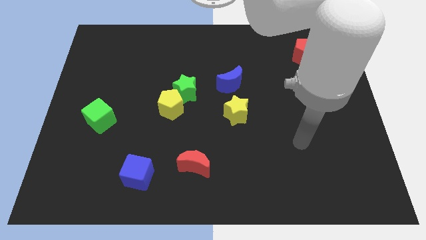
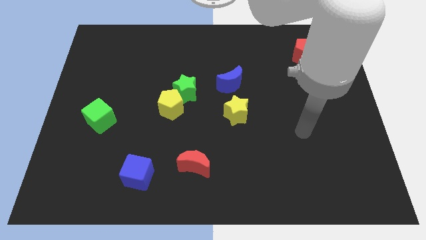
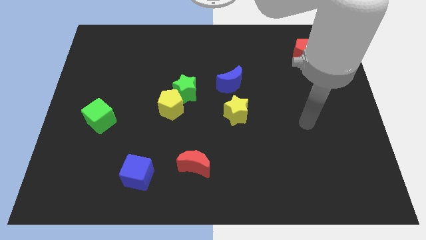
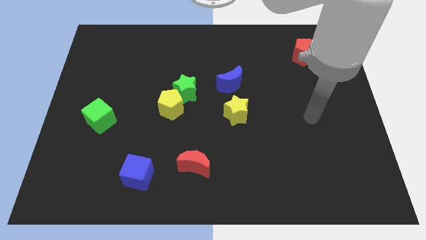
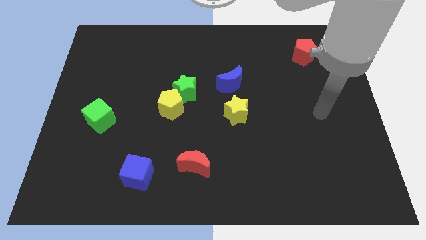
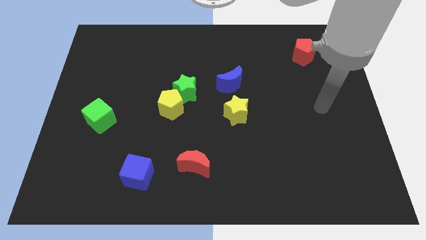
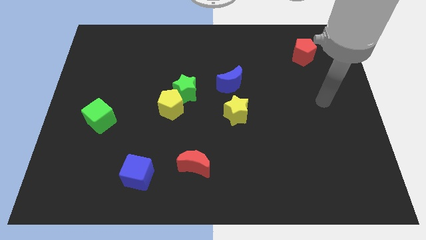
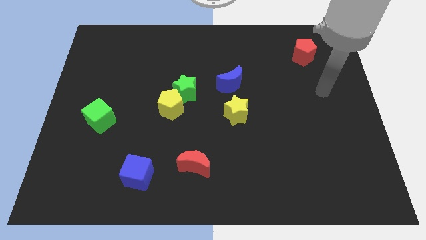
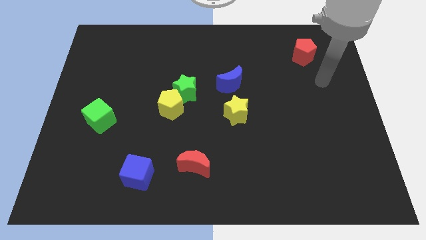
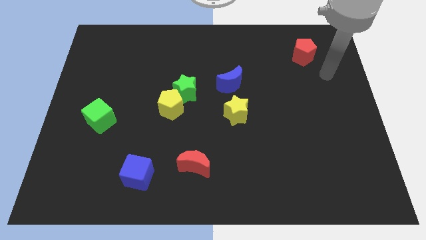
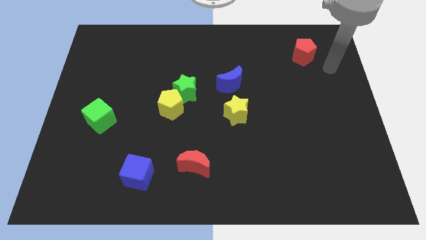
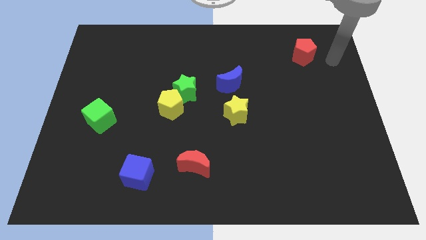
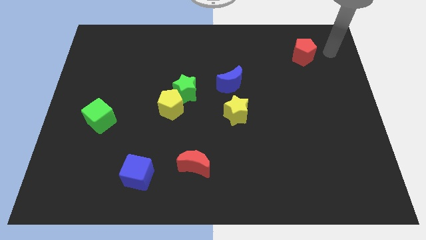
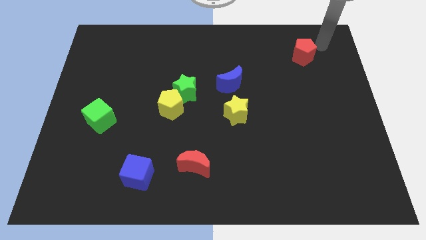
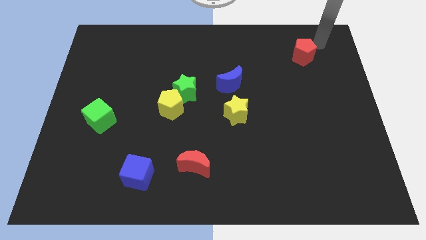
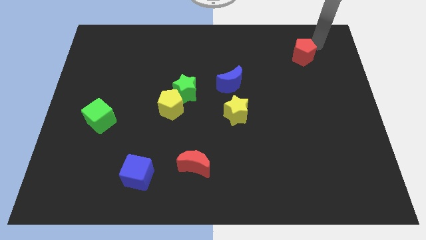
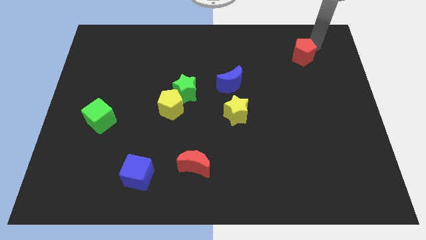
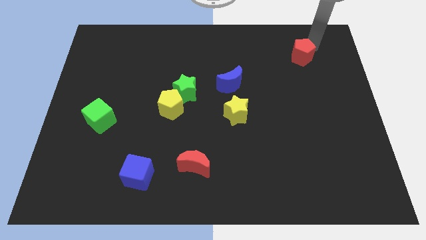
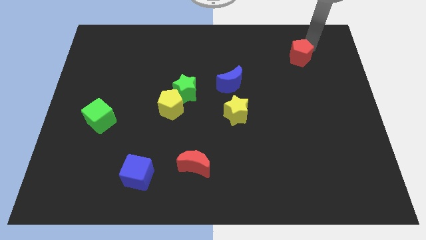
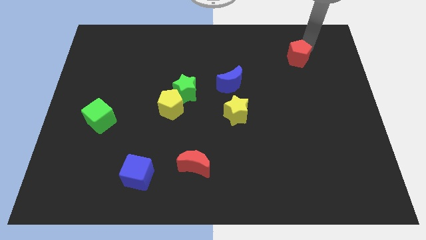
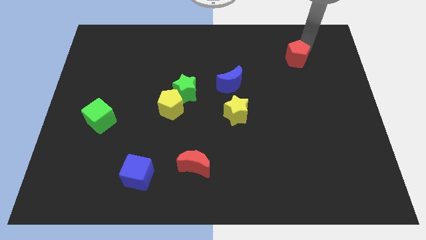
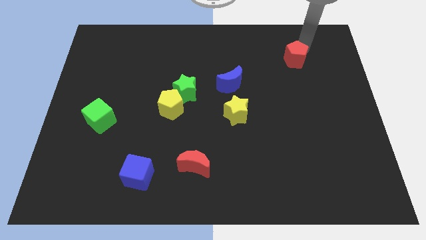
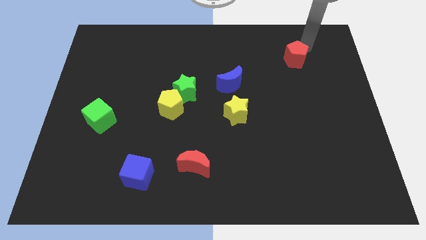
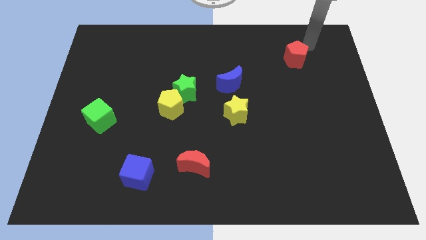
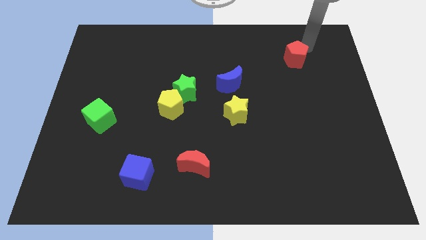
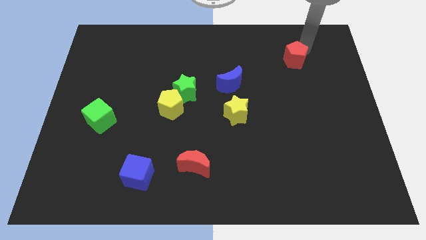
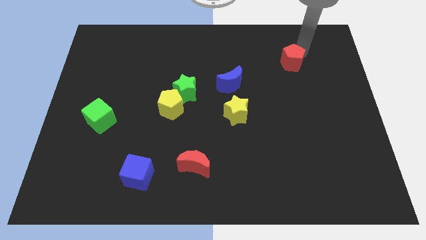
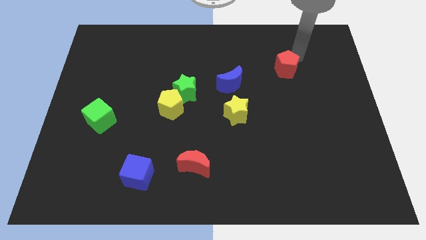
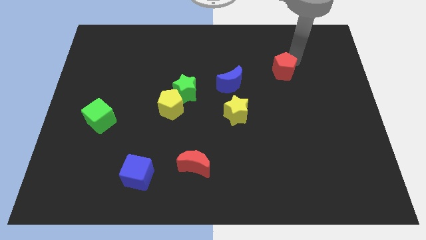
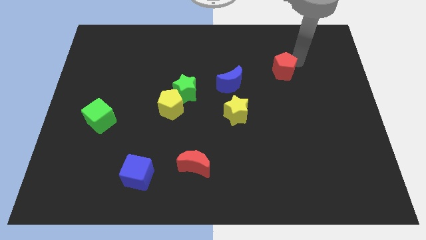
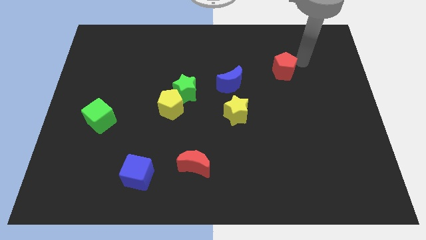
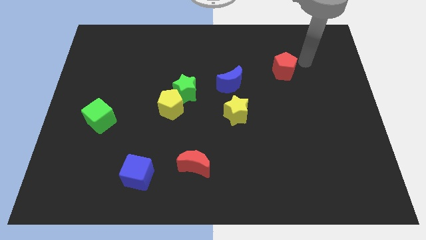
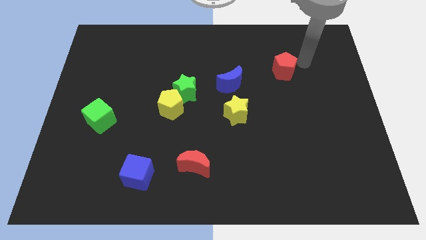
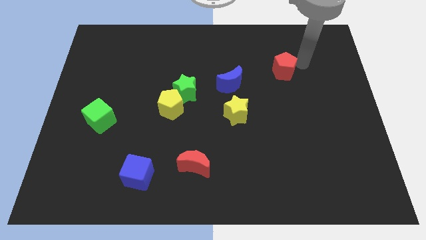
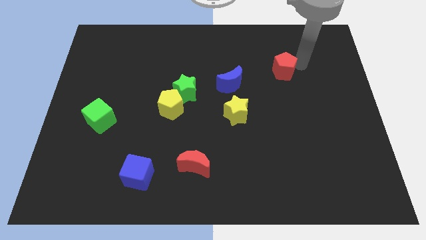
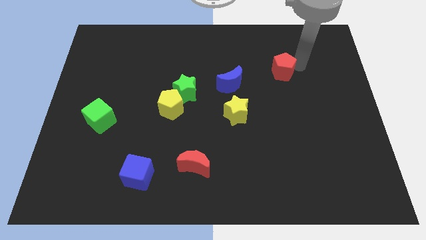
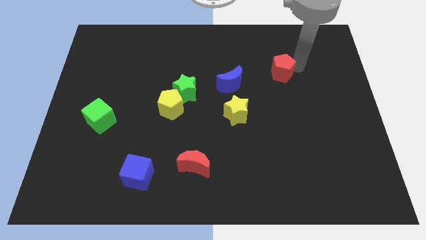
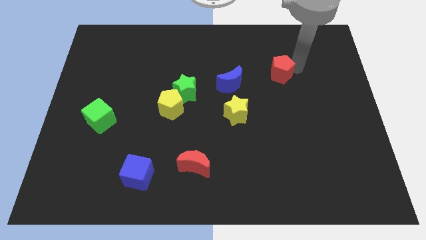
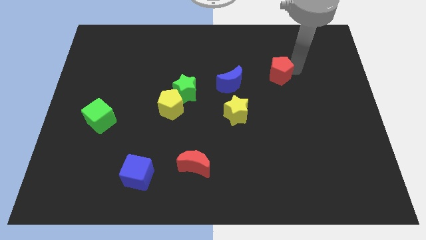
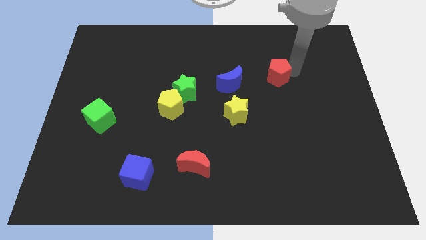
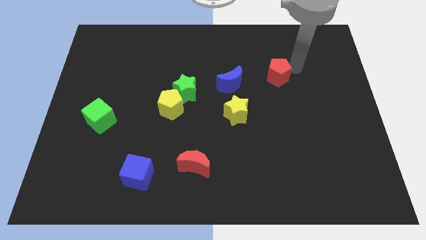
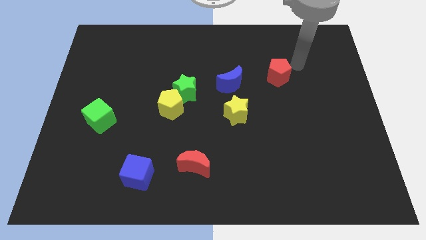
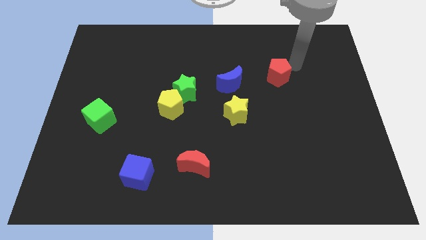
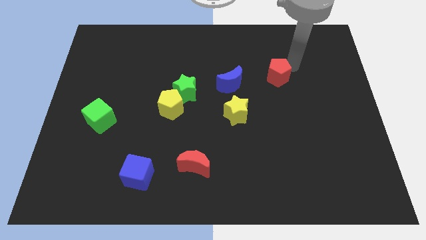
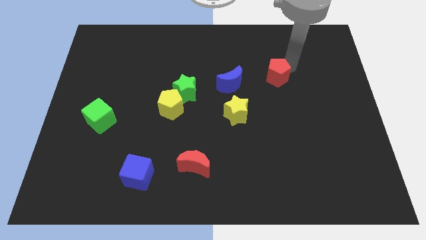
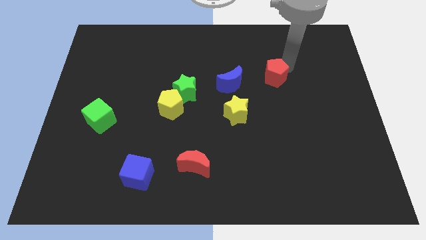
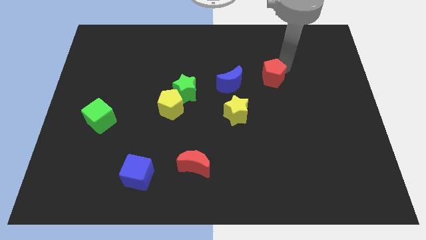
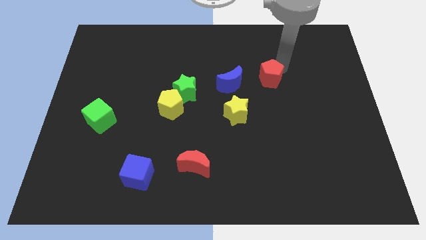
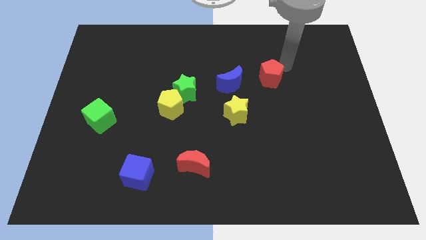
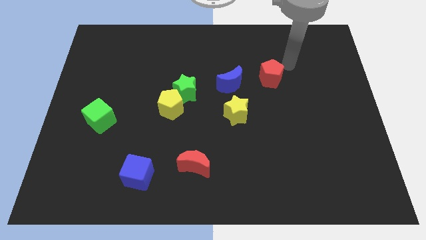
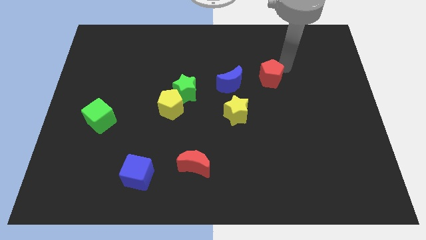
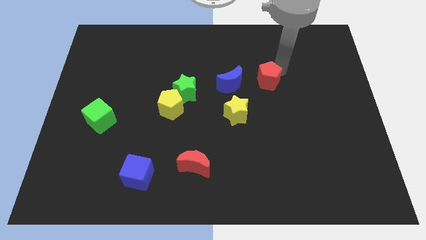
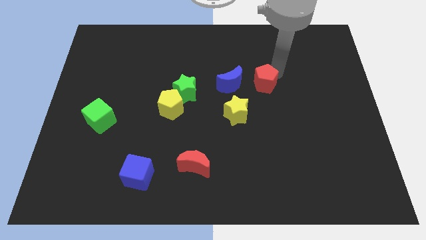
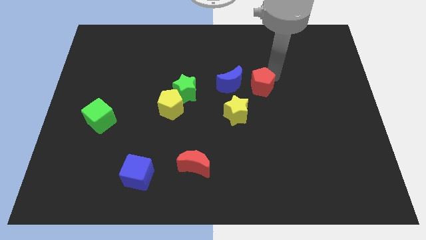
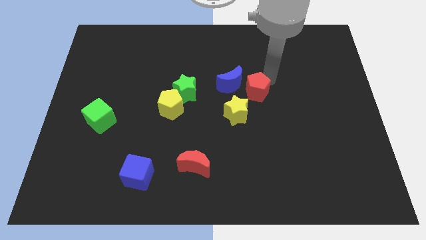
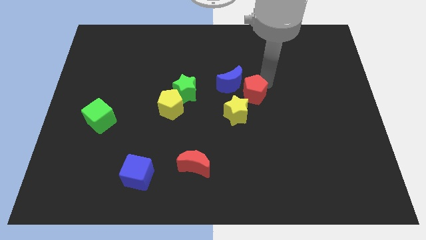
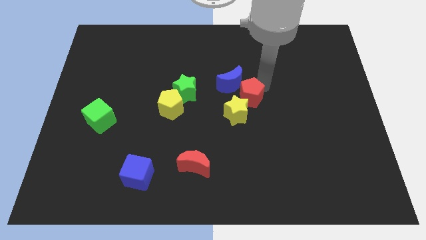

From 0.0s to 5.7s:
push the red pentagon downwards and then left

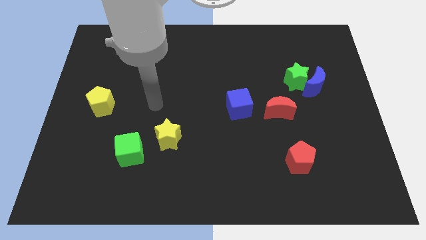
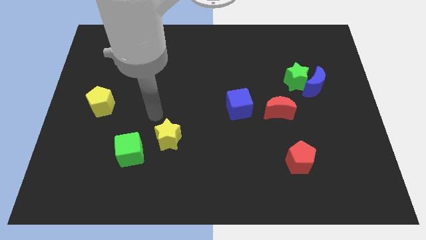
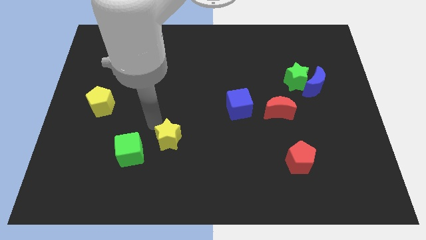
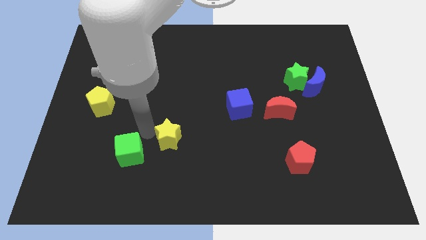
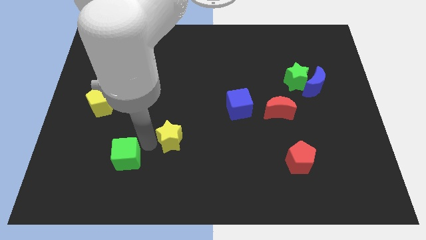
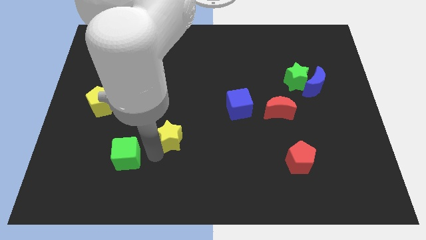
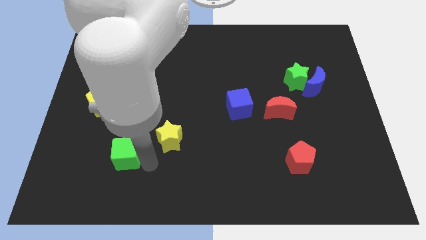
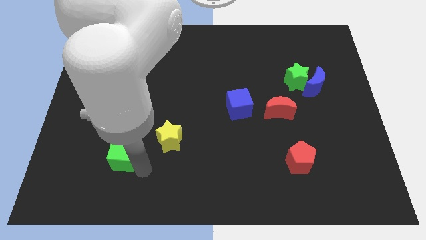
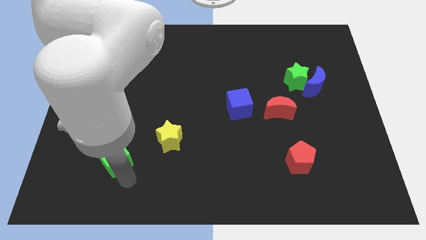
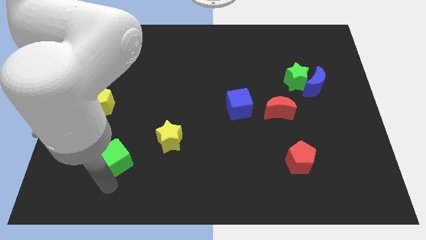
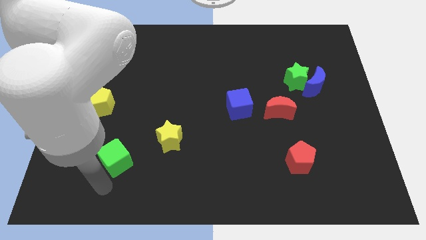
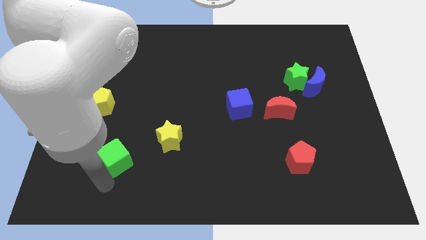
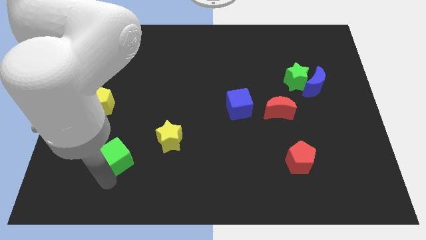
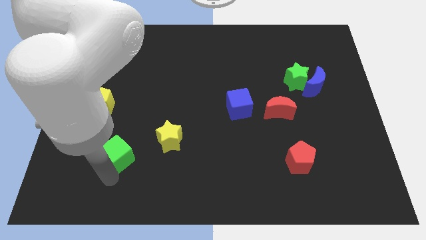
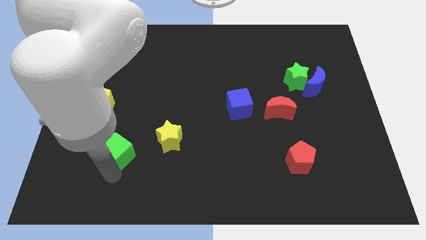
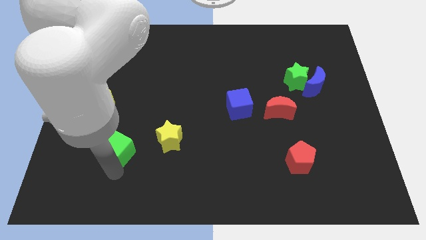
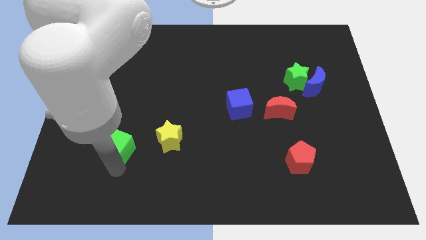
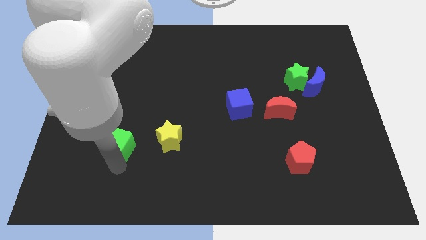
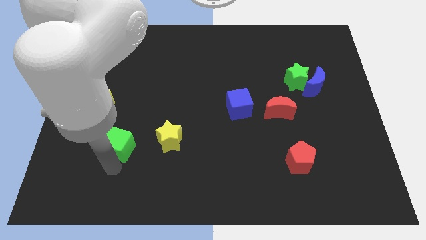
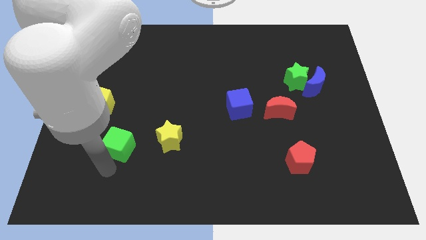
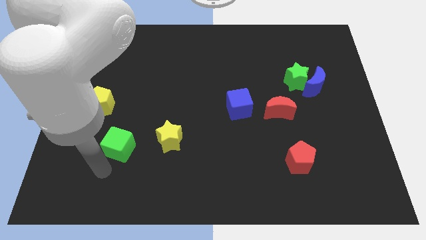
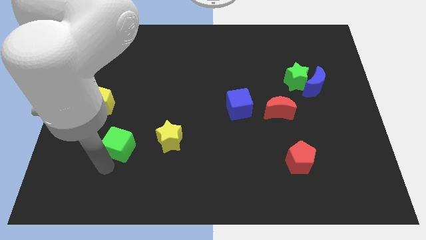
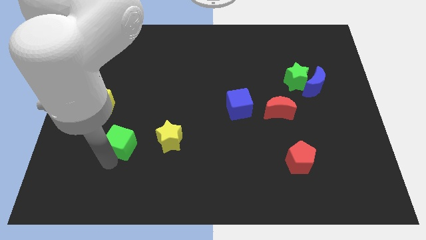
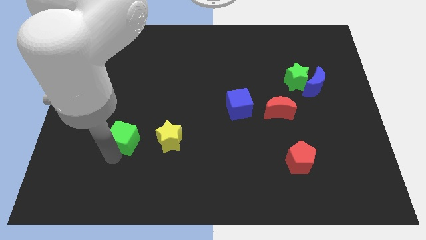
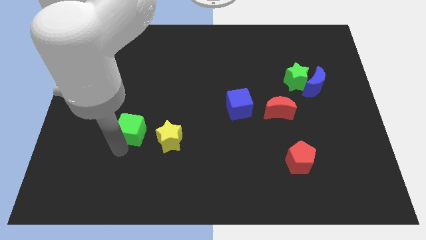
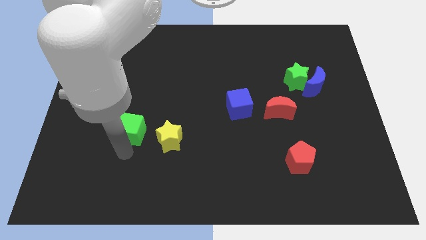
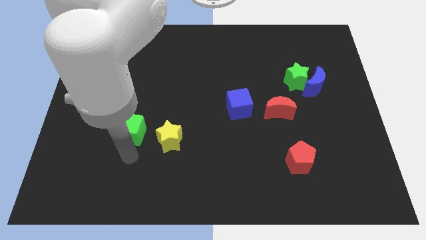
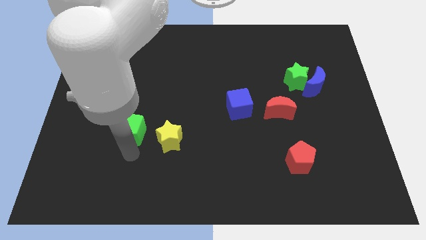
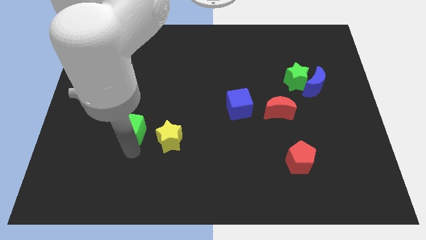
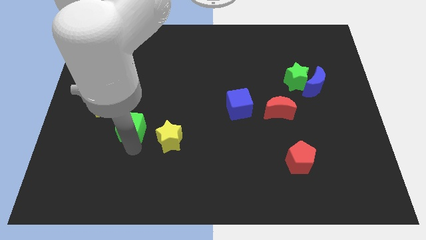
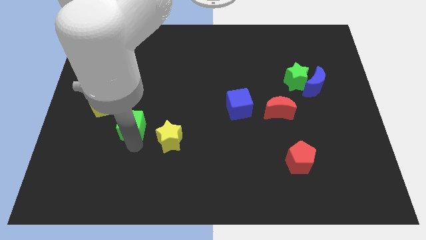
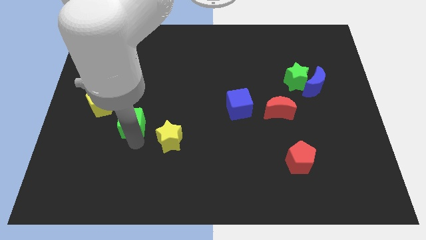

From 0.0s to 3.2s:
move the green cube slightly upwards
